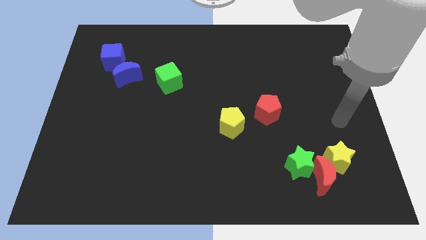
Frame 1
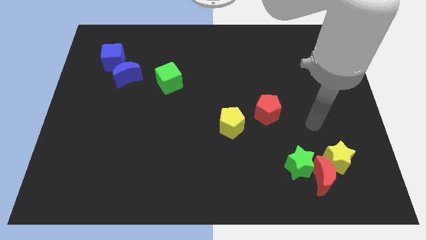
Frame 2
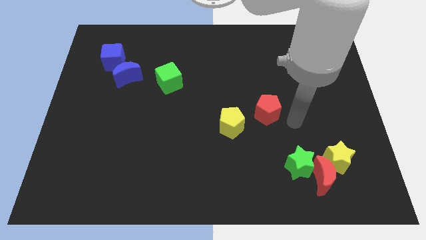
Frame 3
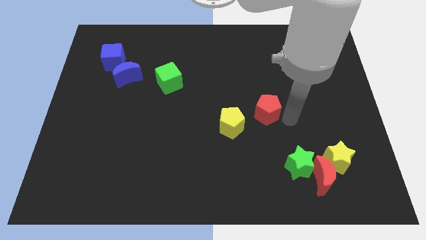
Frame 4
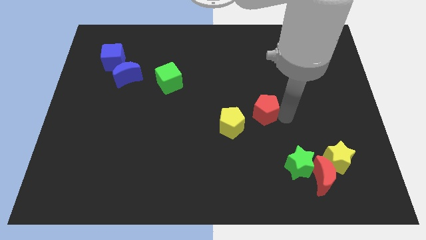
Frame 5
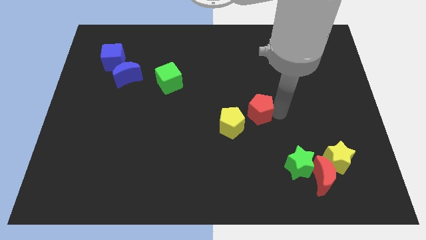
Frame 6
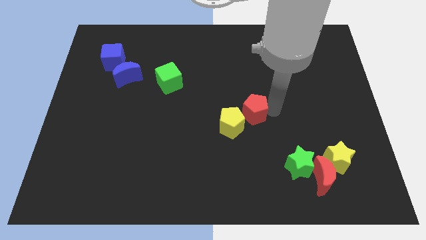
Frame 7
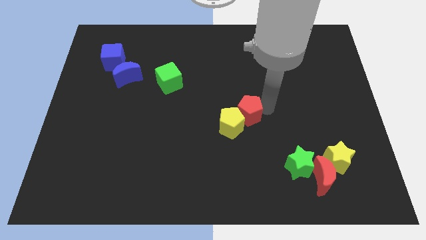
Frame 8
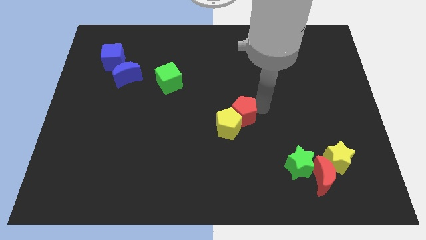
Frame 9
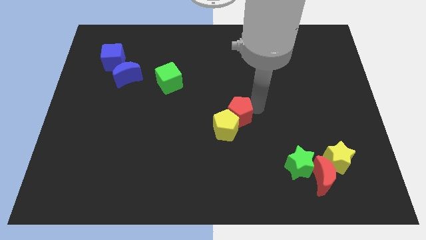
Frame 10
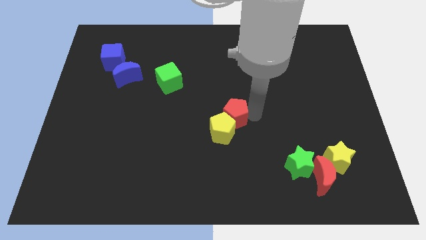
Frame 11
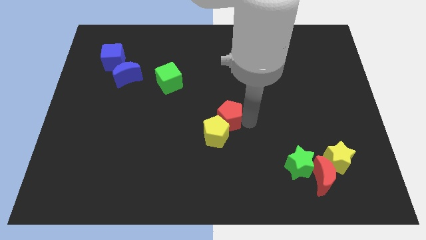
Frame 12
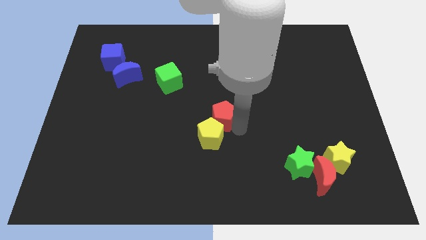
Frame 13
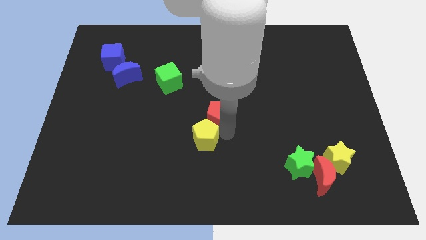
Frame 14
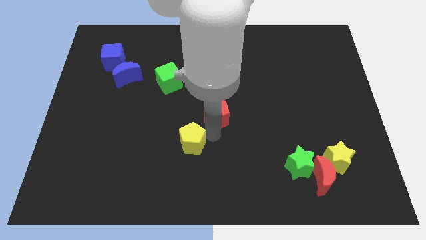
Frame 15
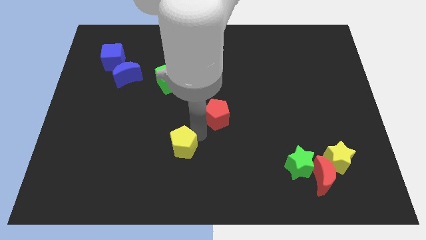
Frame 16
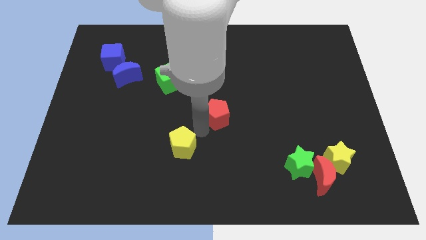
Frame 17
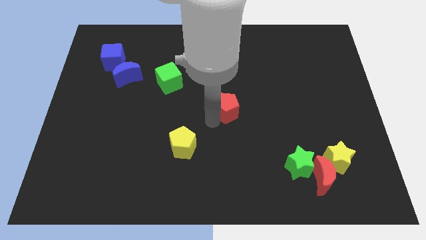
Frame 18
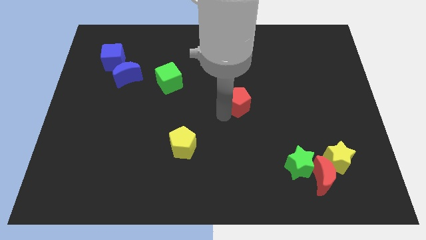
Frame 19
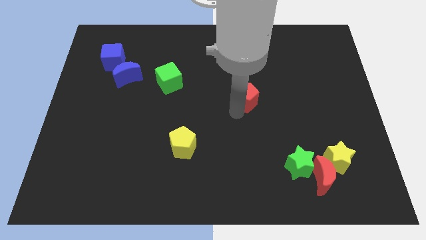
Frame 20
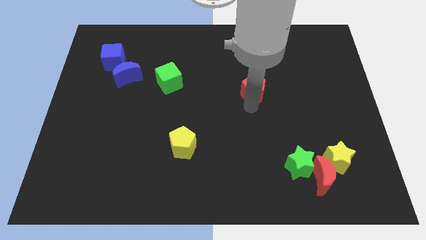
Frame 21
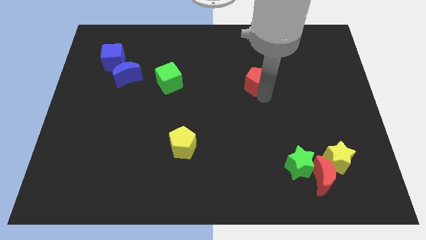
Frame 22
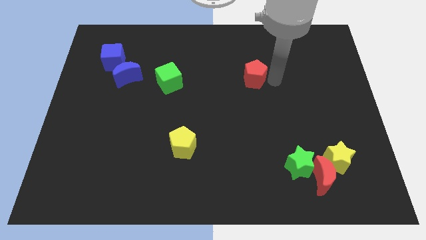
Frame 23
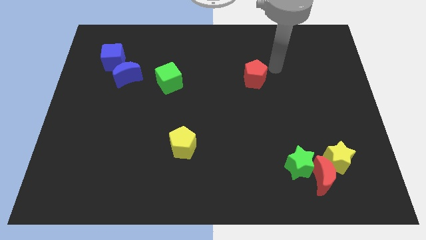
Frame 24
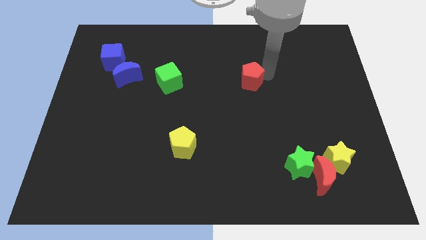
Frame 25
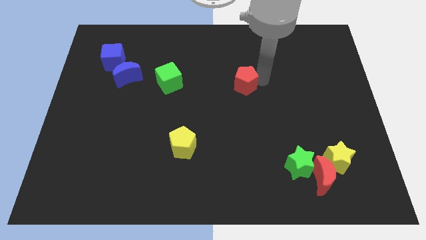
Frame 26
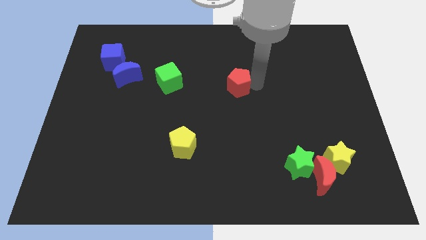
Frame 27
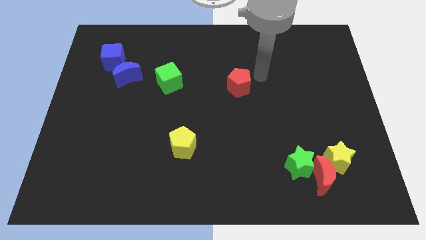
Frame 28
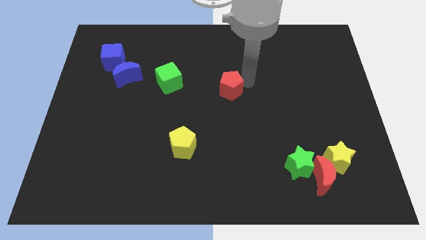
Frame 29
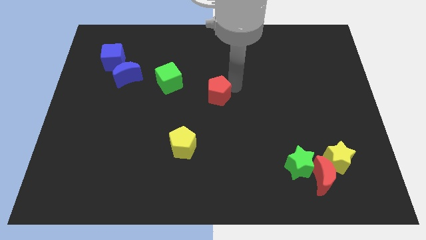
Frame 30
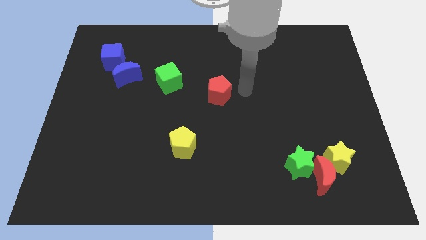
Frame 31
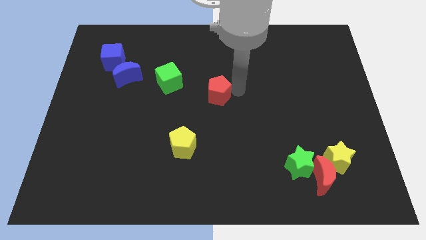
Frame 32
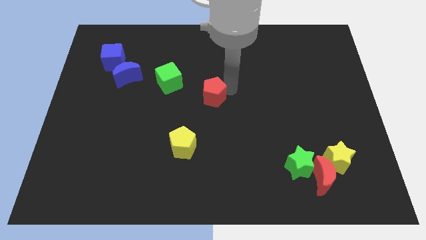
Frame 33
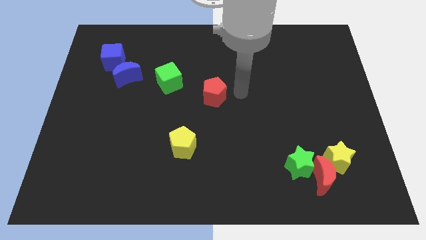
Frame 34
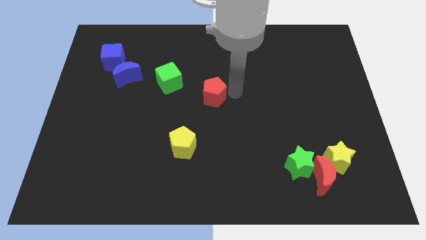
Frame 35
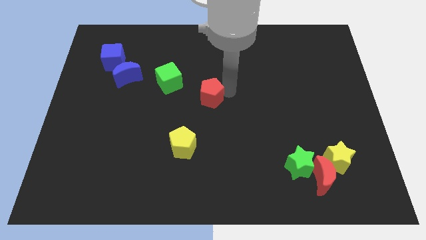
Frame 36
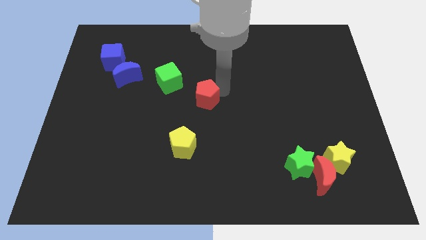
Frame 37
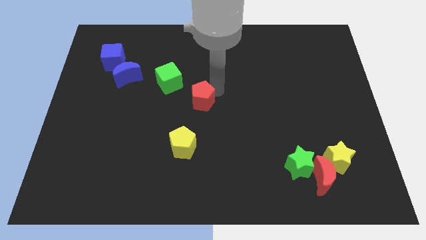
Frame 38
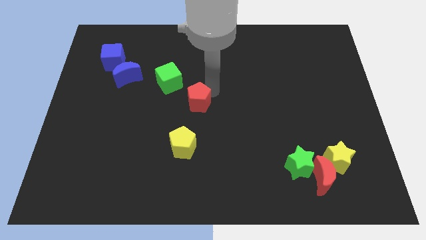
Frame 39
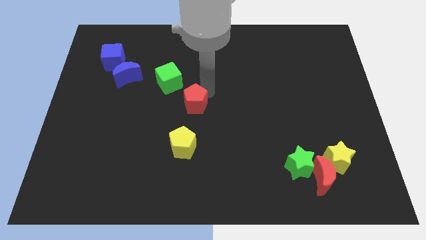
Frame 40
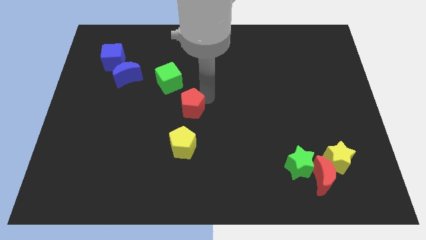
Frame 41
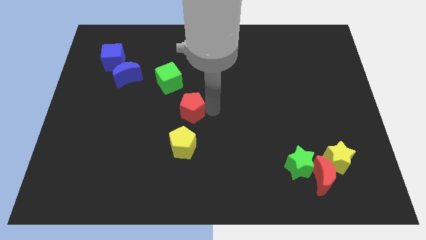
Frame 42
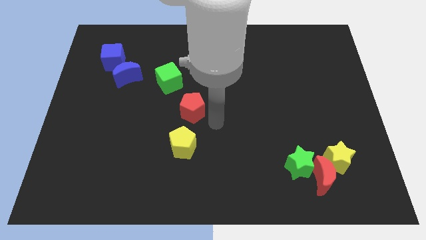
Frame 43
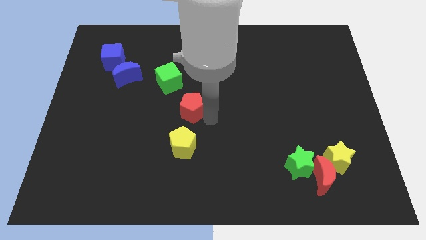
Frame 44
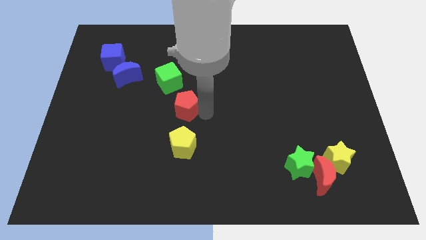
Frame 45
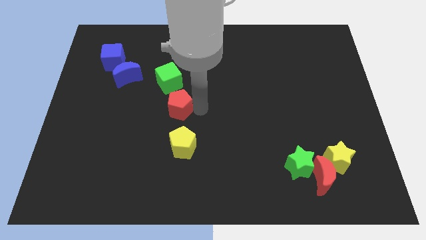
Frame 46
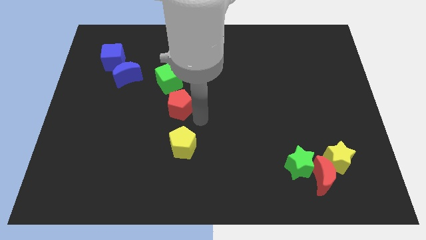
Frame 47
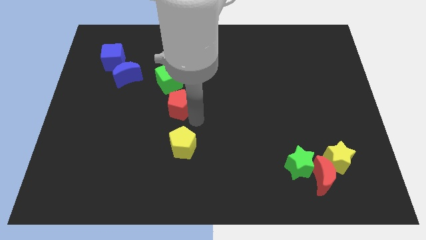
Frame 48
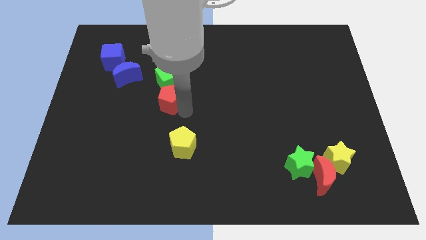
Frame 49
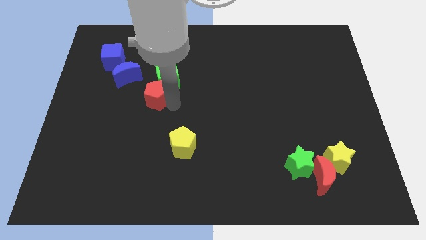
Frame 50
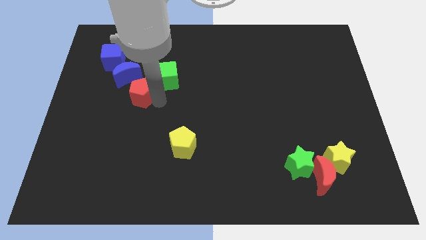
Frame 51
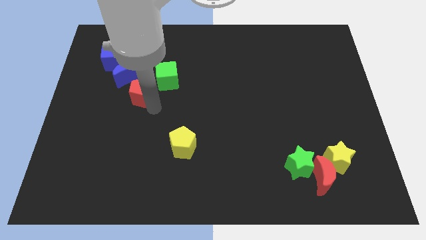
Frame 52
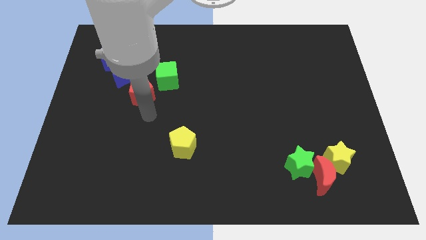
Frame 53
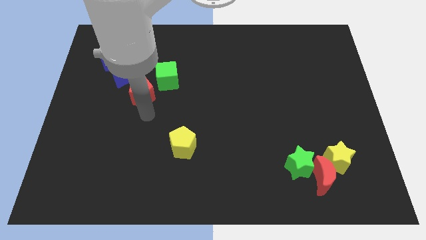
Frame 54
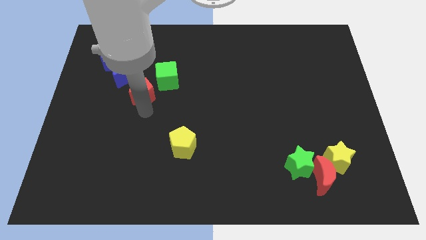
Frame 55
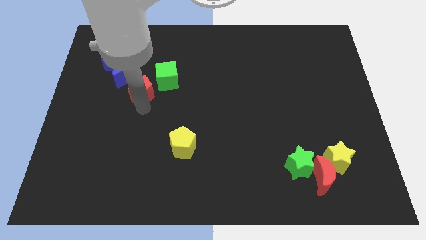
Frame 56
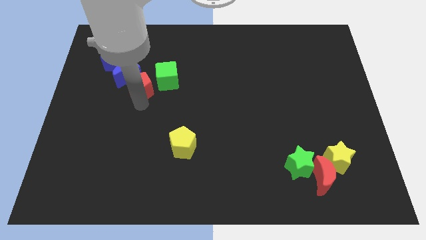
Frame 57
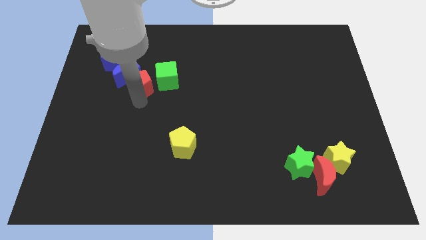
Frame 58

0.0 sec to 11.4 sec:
push the red pentagon to the bottom right of the blue cube

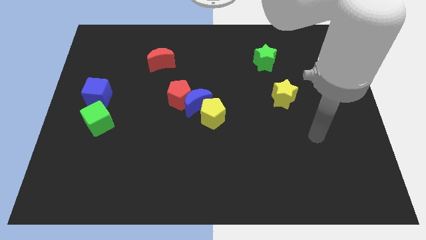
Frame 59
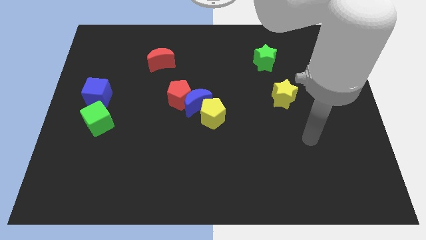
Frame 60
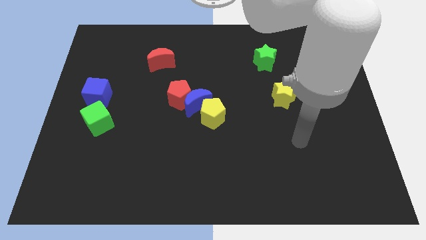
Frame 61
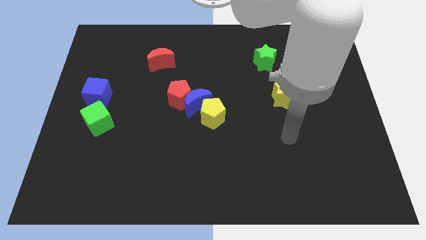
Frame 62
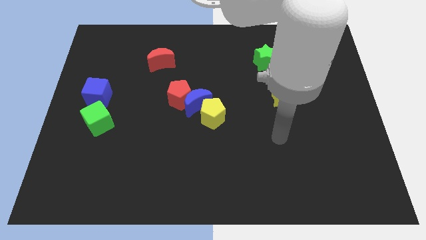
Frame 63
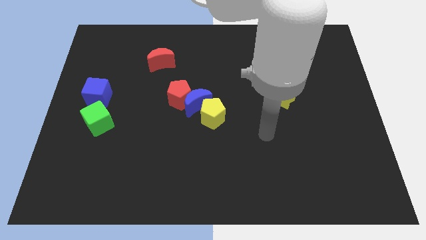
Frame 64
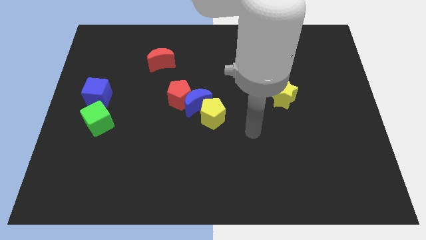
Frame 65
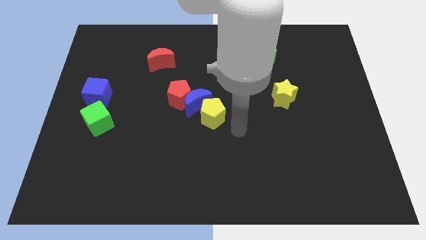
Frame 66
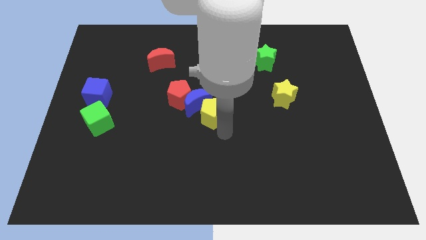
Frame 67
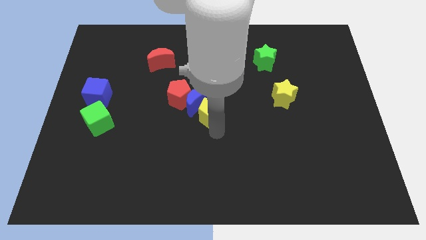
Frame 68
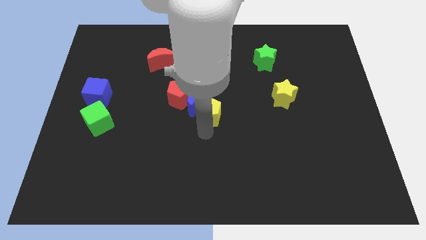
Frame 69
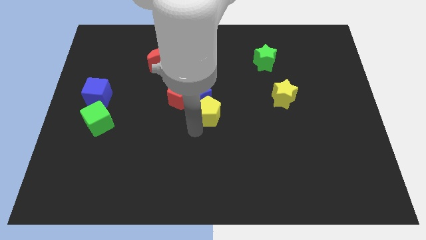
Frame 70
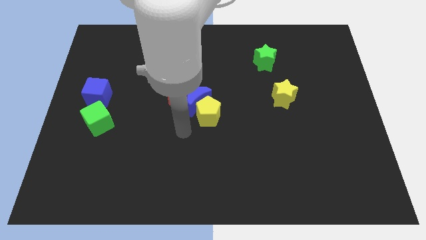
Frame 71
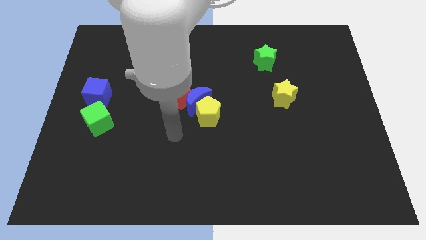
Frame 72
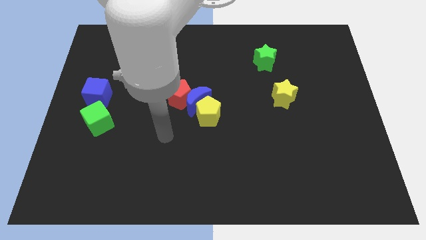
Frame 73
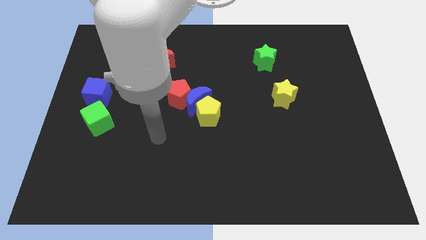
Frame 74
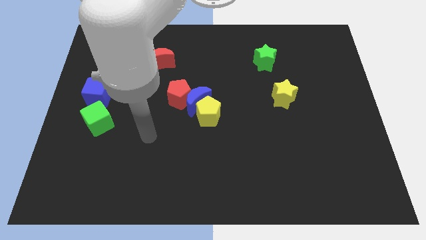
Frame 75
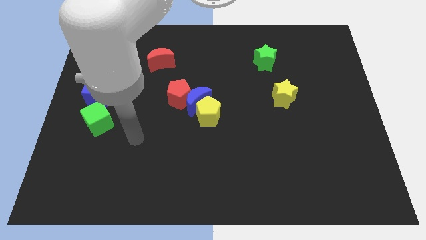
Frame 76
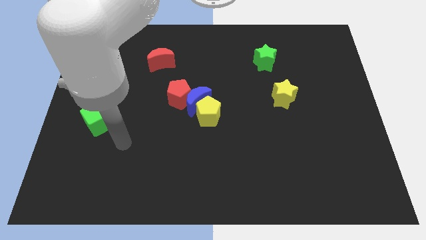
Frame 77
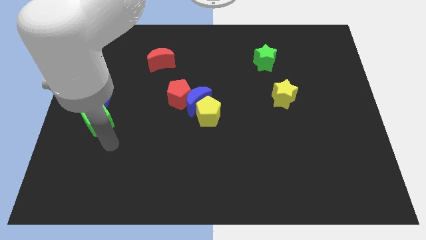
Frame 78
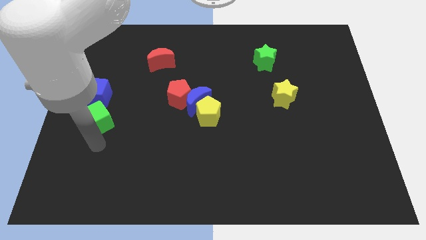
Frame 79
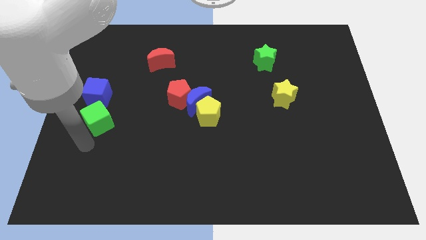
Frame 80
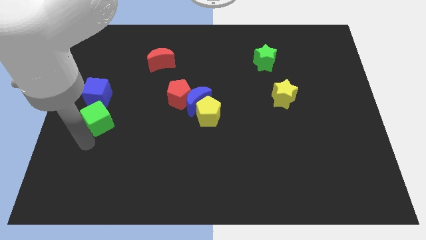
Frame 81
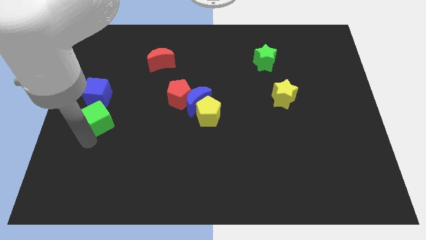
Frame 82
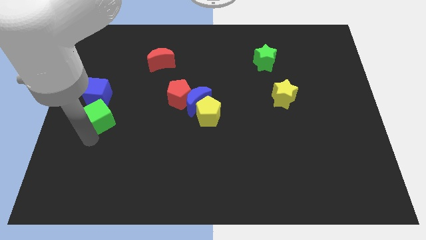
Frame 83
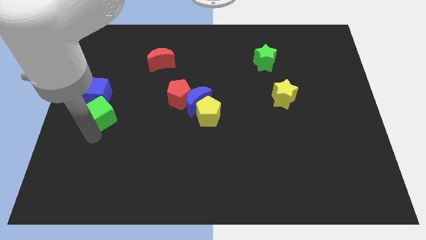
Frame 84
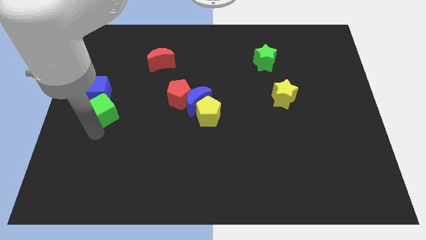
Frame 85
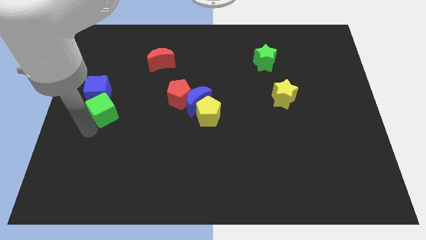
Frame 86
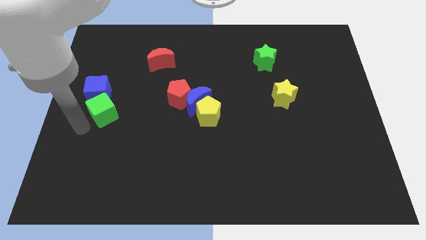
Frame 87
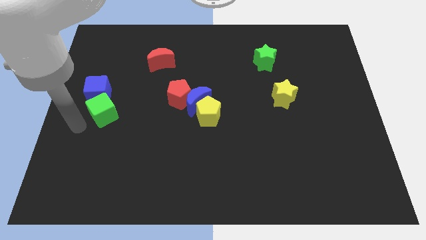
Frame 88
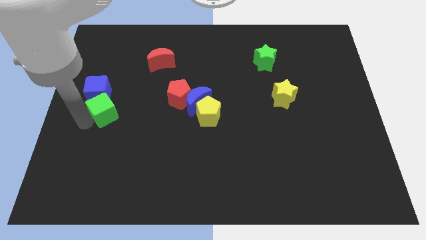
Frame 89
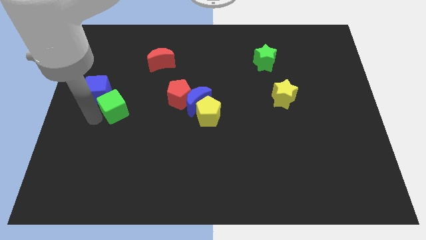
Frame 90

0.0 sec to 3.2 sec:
put the green cube to the left of the red pentagon
